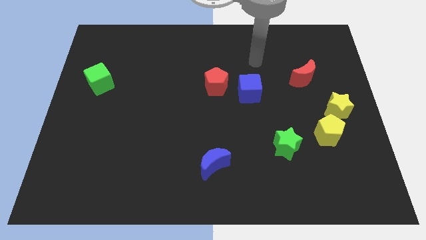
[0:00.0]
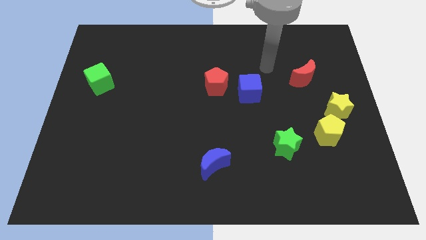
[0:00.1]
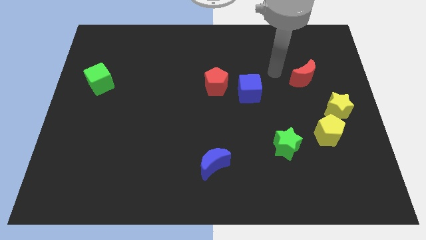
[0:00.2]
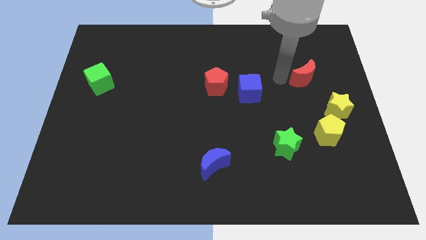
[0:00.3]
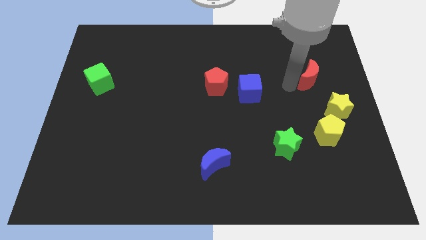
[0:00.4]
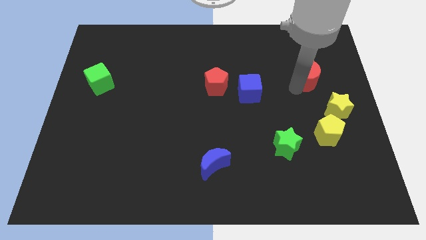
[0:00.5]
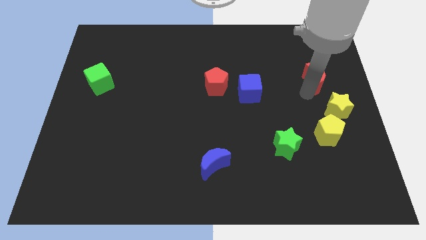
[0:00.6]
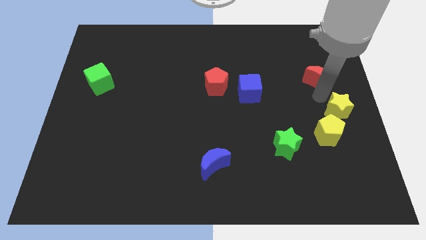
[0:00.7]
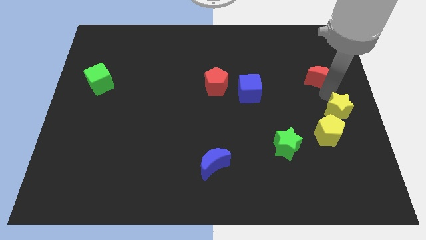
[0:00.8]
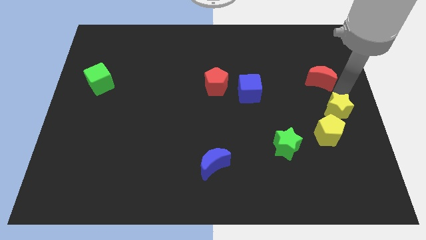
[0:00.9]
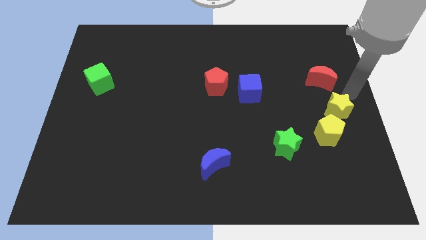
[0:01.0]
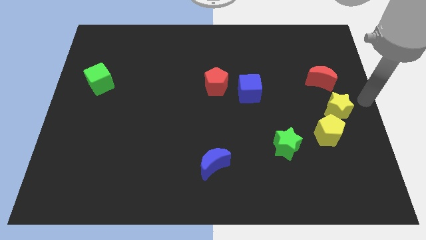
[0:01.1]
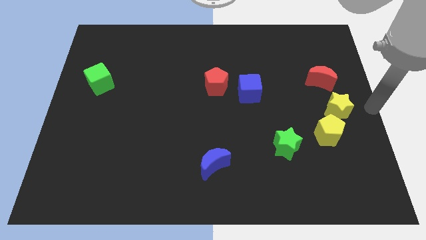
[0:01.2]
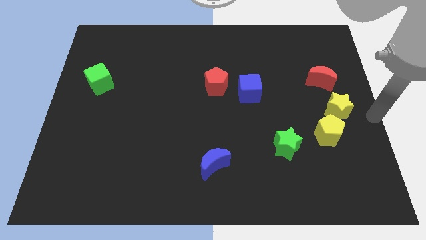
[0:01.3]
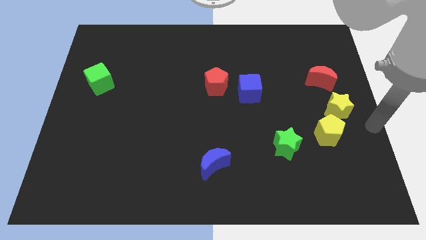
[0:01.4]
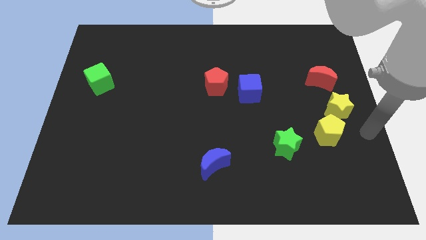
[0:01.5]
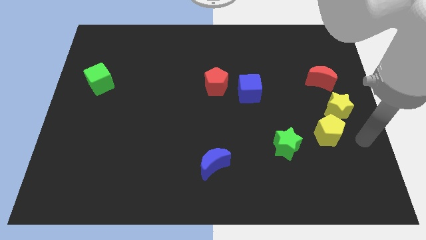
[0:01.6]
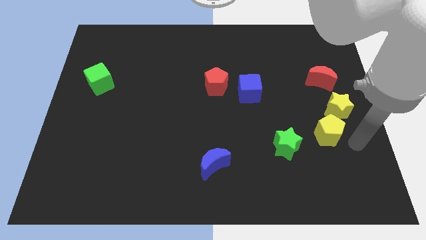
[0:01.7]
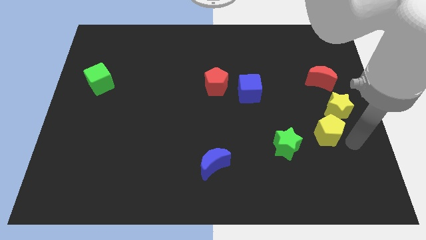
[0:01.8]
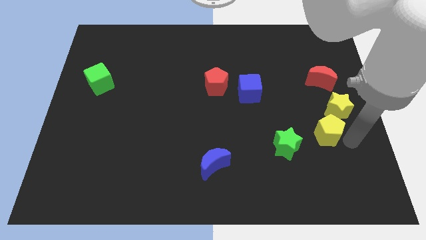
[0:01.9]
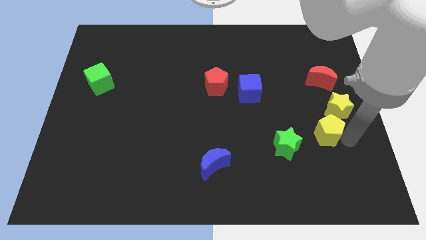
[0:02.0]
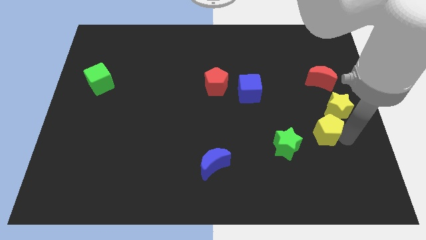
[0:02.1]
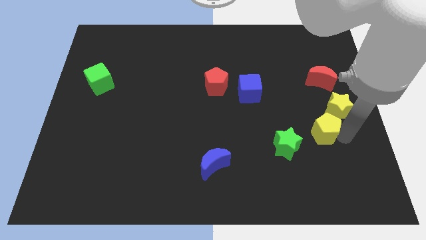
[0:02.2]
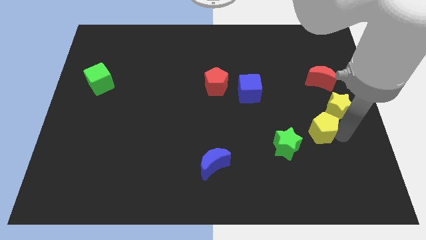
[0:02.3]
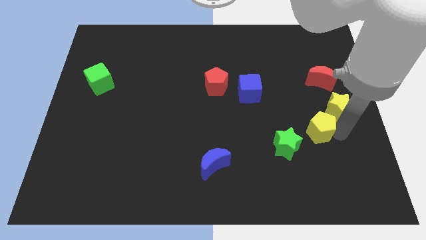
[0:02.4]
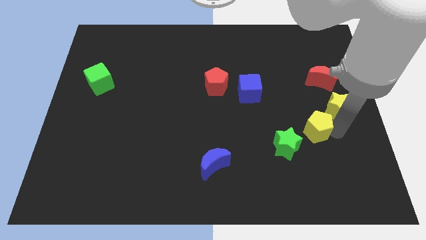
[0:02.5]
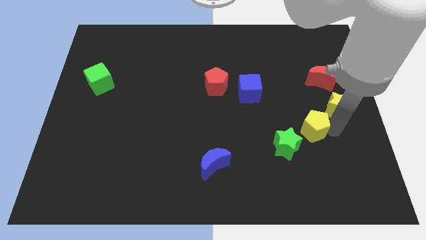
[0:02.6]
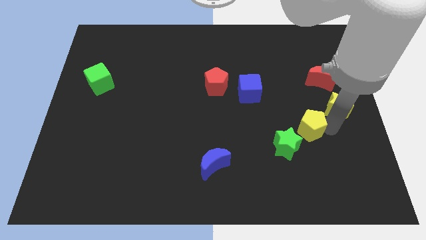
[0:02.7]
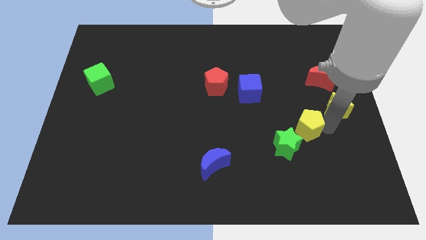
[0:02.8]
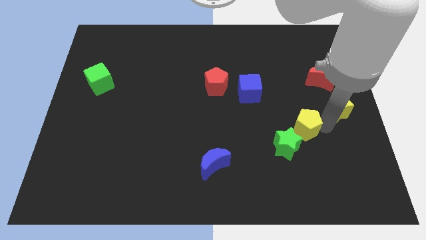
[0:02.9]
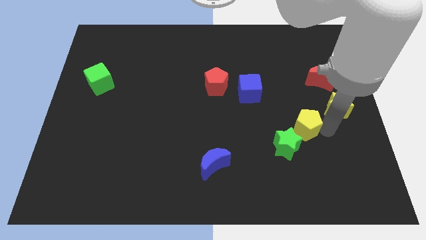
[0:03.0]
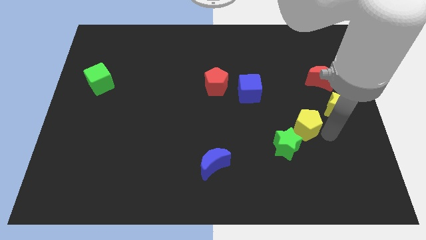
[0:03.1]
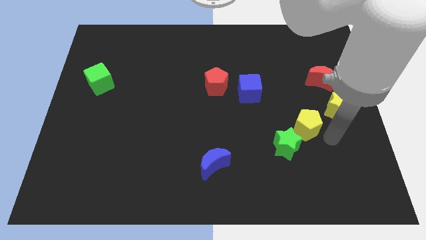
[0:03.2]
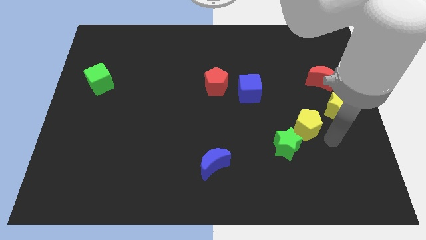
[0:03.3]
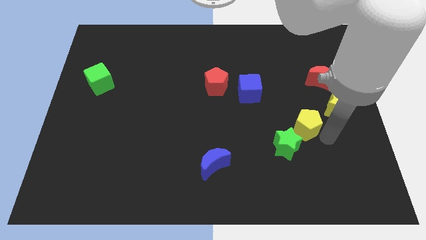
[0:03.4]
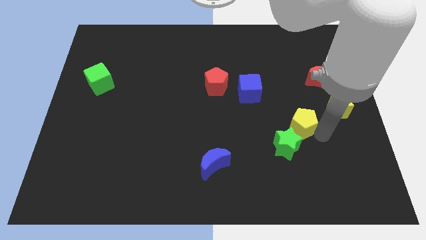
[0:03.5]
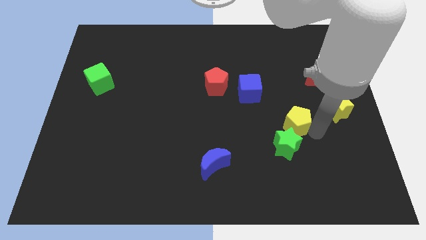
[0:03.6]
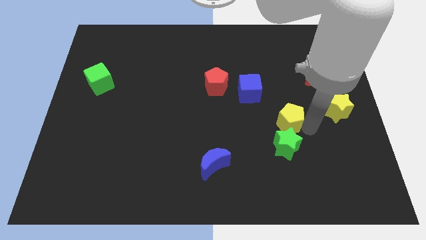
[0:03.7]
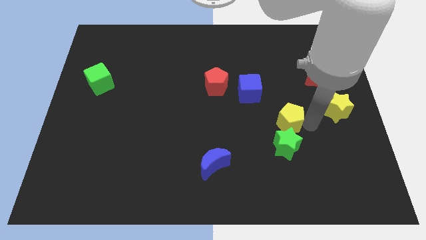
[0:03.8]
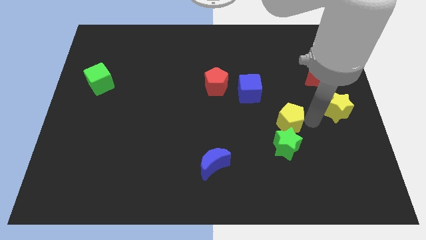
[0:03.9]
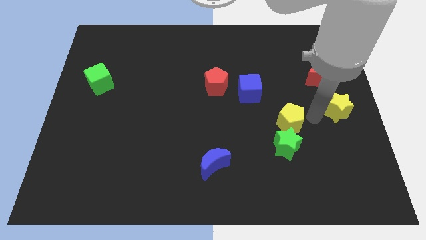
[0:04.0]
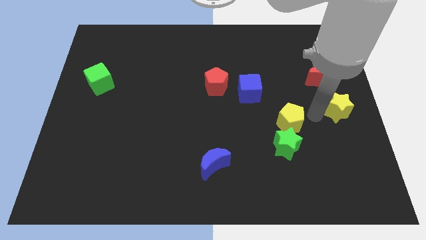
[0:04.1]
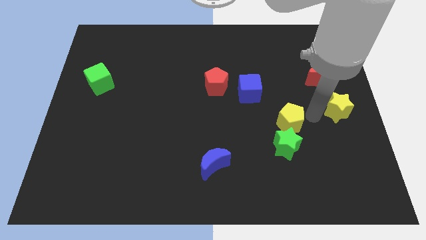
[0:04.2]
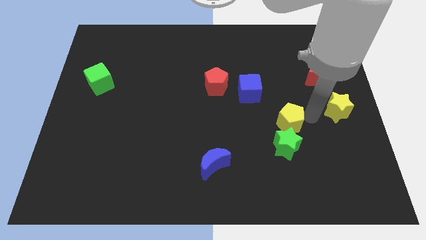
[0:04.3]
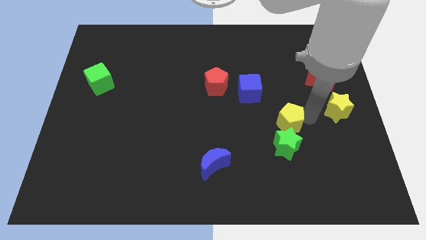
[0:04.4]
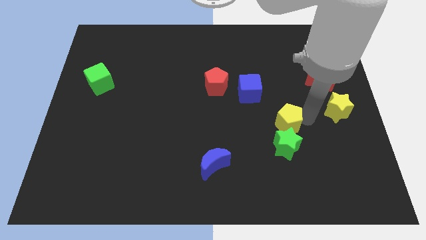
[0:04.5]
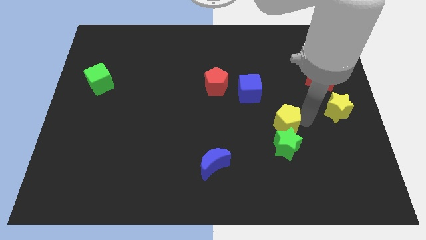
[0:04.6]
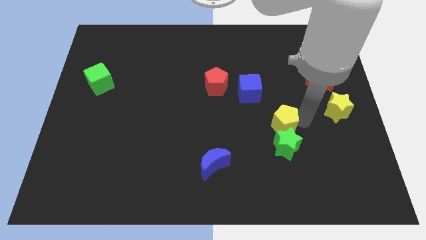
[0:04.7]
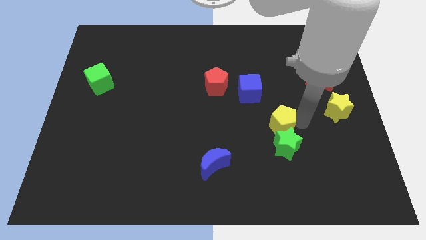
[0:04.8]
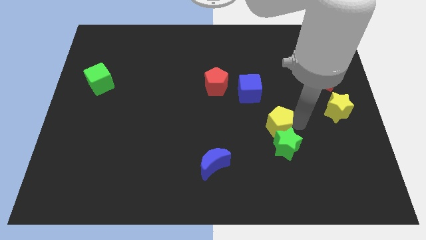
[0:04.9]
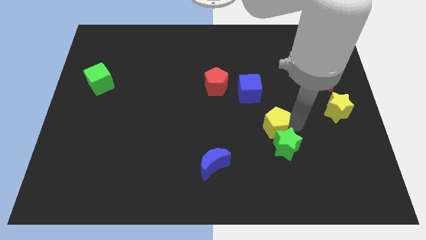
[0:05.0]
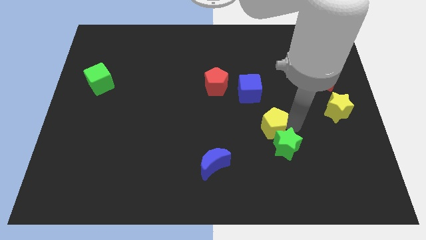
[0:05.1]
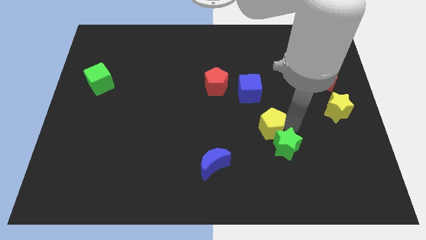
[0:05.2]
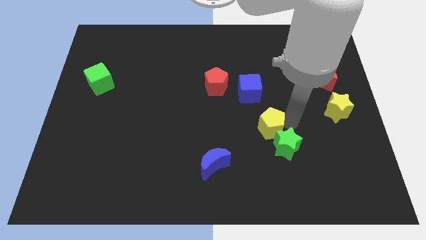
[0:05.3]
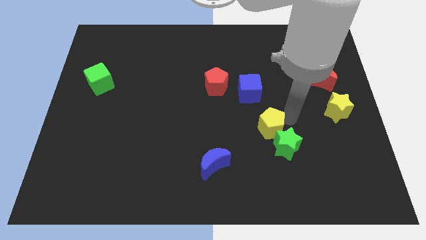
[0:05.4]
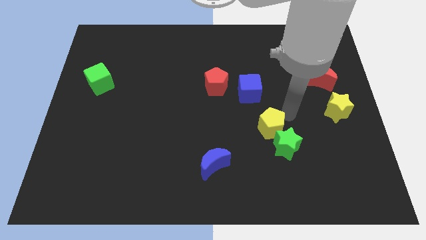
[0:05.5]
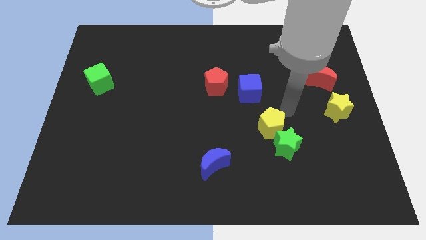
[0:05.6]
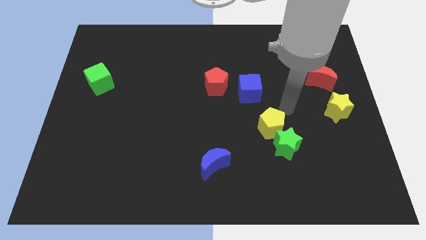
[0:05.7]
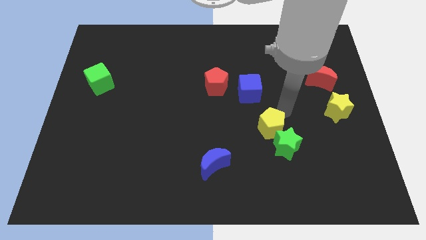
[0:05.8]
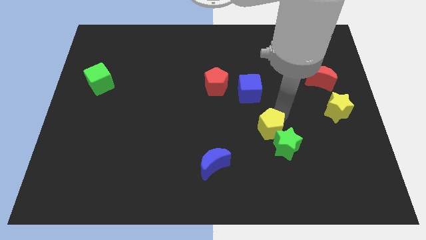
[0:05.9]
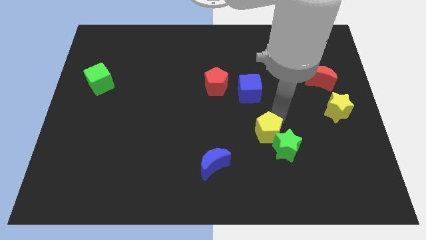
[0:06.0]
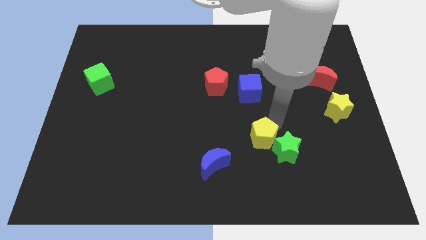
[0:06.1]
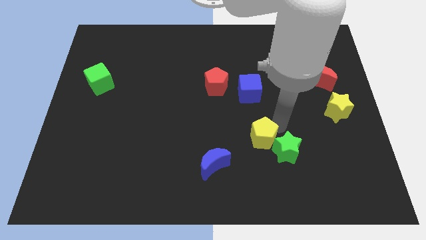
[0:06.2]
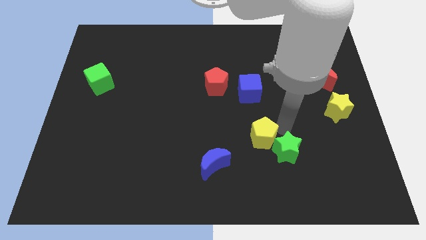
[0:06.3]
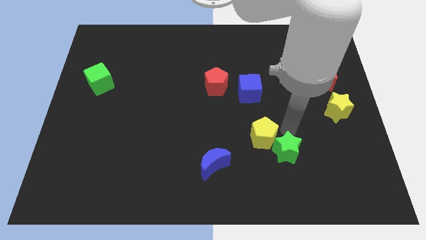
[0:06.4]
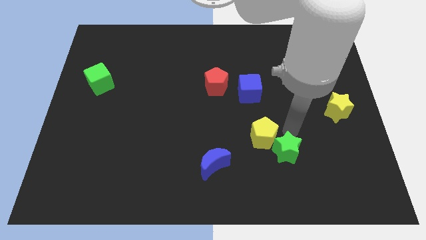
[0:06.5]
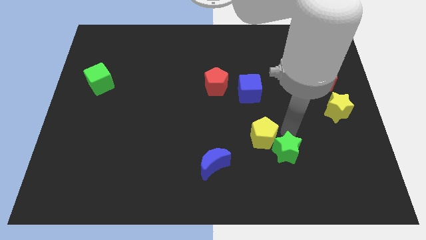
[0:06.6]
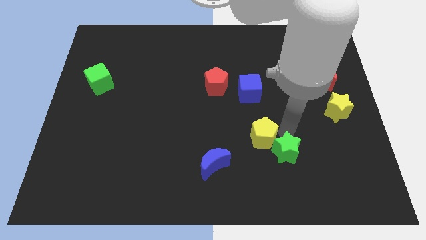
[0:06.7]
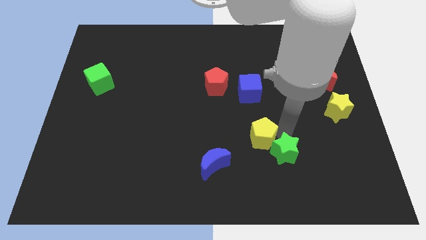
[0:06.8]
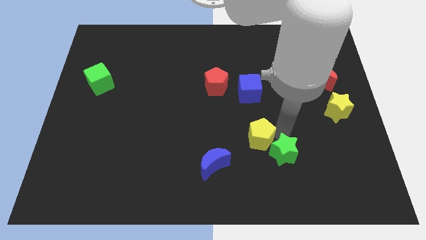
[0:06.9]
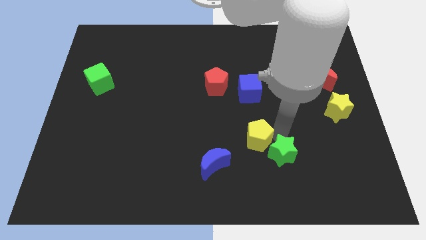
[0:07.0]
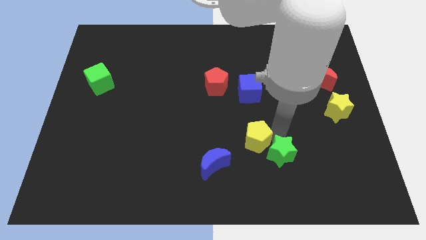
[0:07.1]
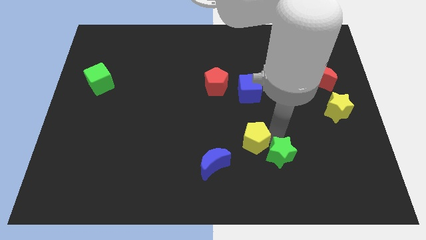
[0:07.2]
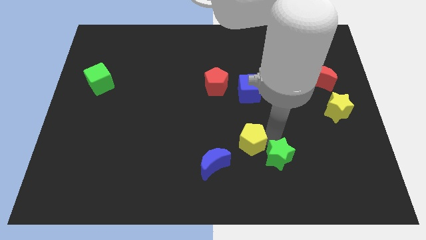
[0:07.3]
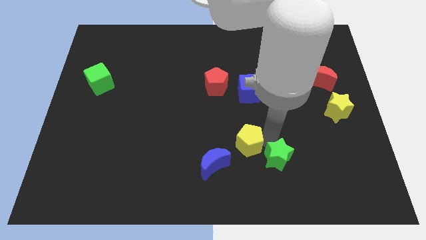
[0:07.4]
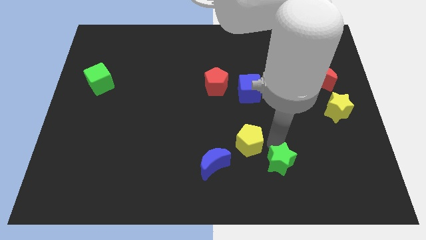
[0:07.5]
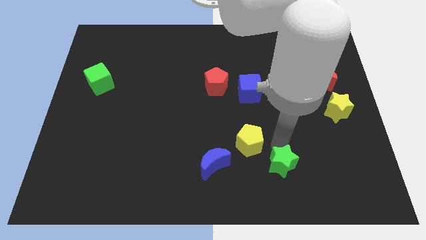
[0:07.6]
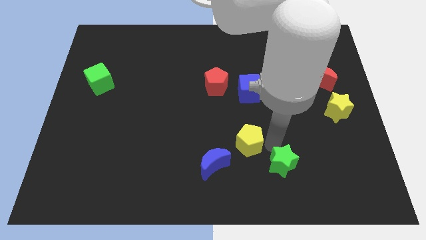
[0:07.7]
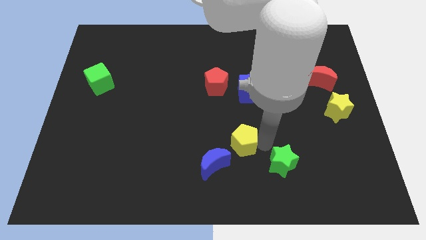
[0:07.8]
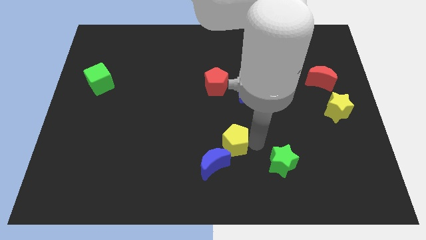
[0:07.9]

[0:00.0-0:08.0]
slide the yellow pentagon to the left

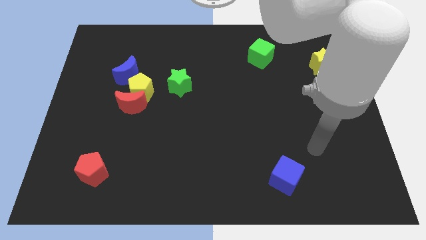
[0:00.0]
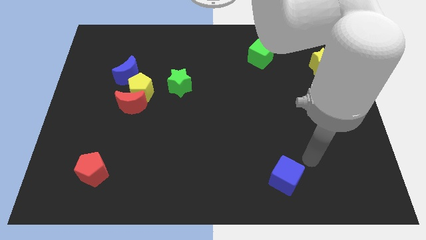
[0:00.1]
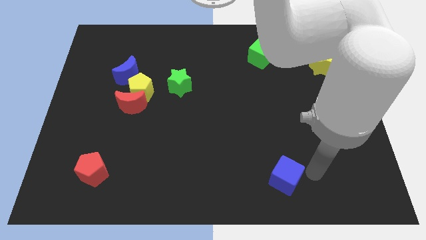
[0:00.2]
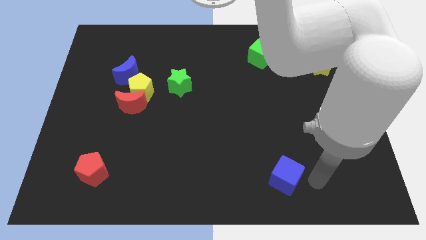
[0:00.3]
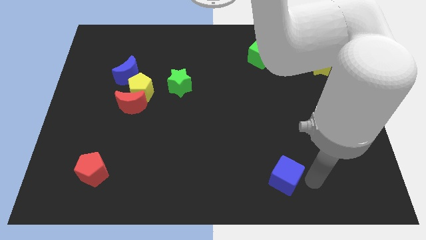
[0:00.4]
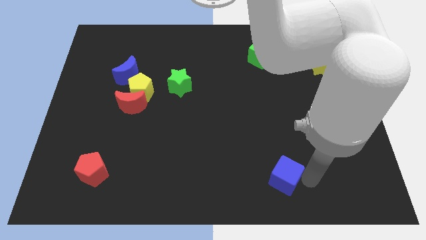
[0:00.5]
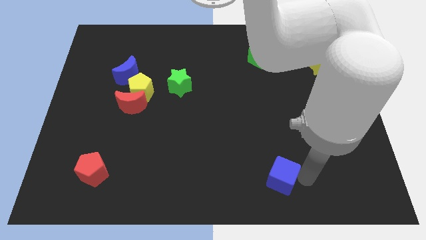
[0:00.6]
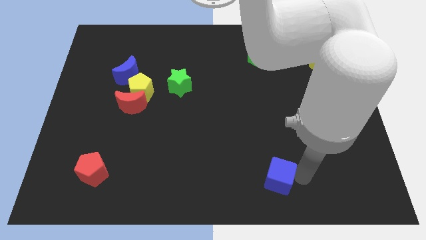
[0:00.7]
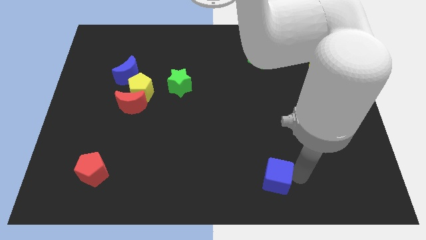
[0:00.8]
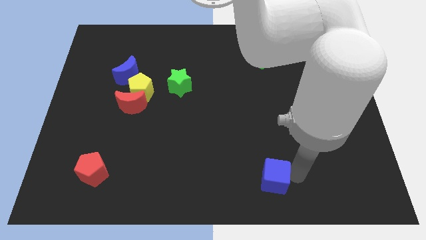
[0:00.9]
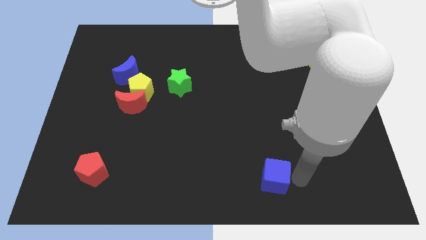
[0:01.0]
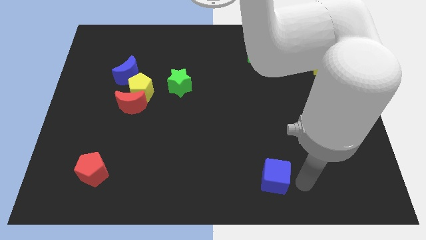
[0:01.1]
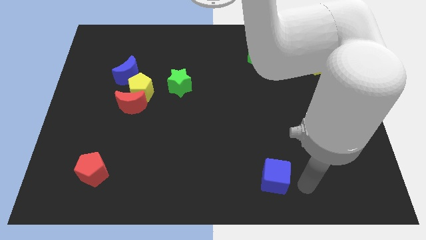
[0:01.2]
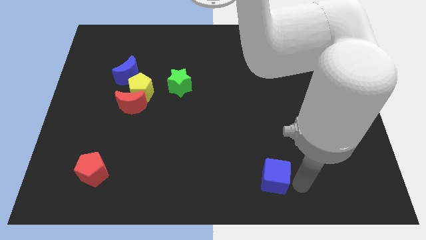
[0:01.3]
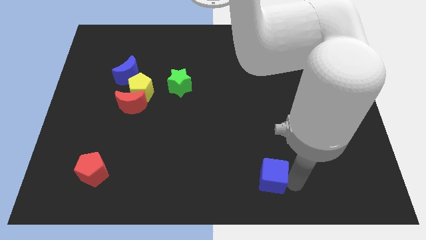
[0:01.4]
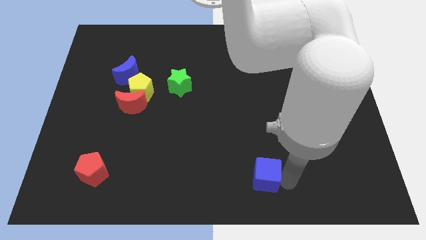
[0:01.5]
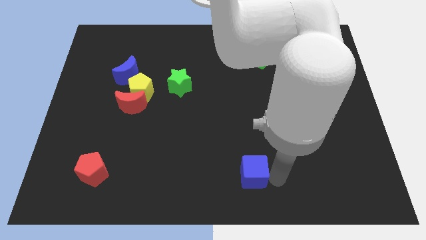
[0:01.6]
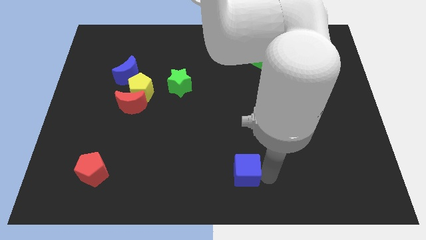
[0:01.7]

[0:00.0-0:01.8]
slightly move the blue cube left
